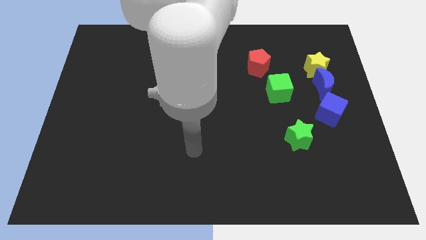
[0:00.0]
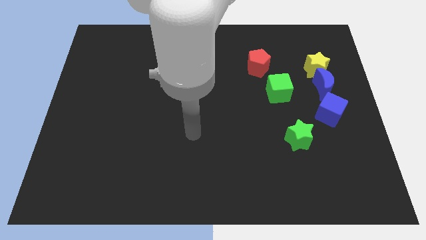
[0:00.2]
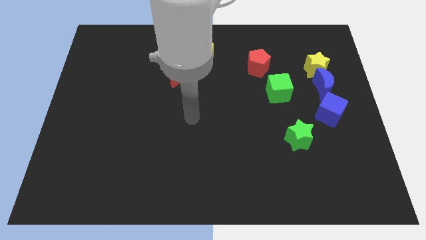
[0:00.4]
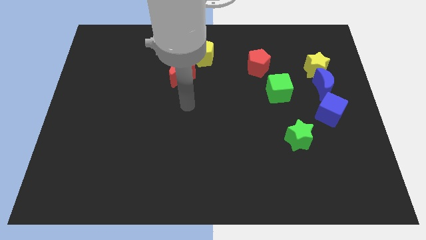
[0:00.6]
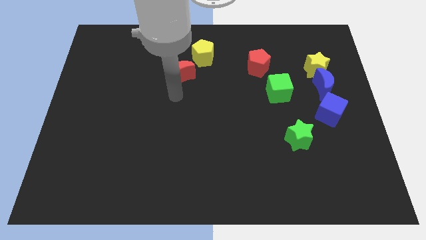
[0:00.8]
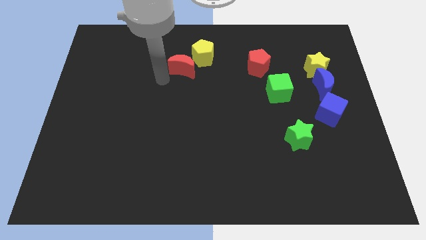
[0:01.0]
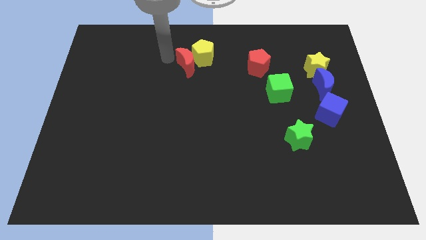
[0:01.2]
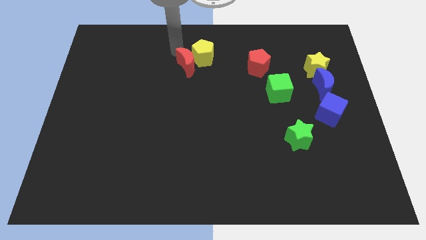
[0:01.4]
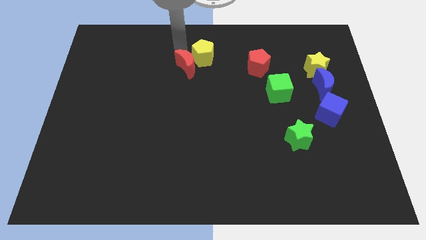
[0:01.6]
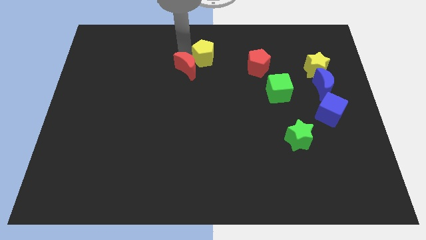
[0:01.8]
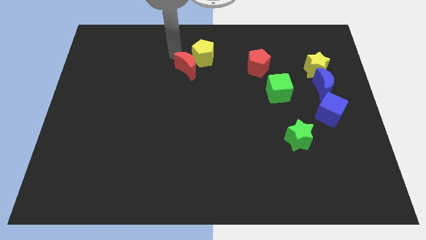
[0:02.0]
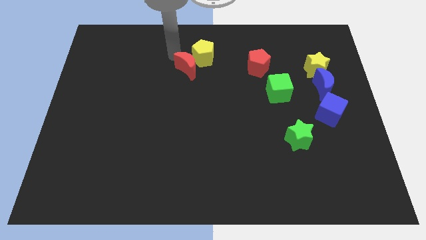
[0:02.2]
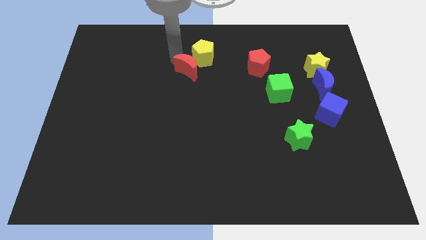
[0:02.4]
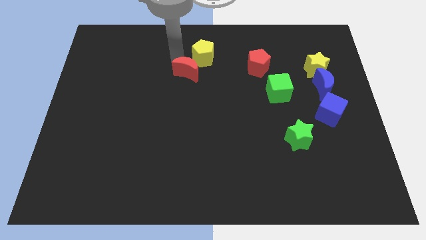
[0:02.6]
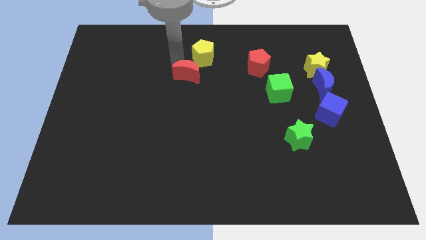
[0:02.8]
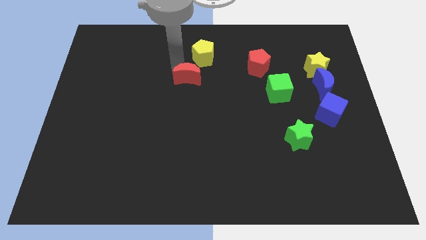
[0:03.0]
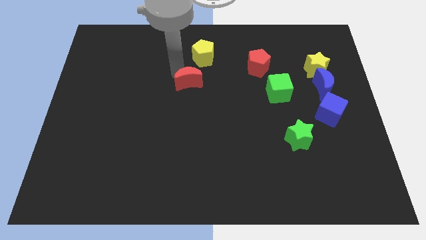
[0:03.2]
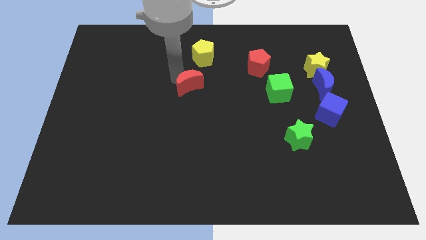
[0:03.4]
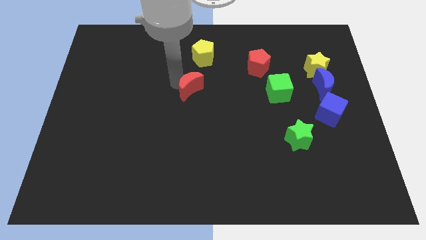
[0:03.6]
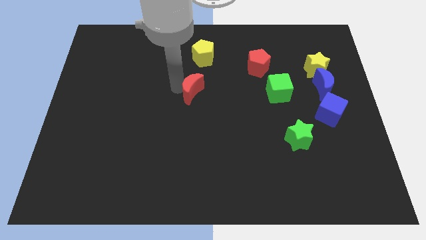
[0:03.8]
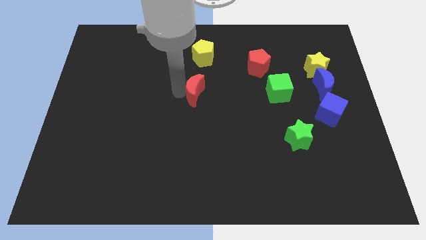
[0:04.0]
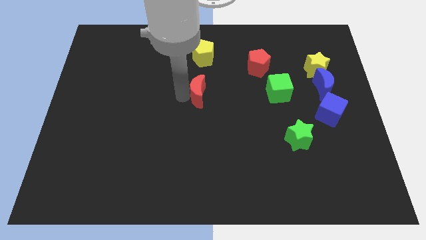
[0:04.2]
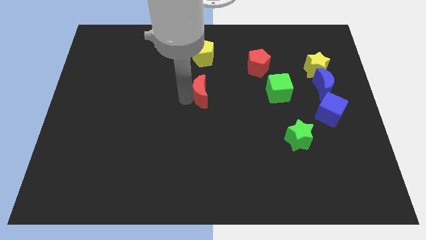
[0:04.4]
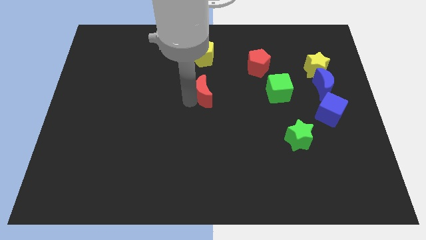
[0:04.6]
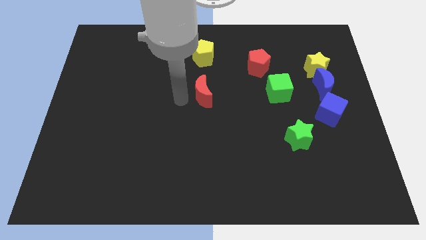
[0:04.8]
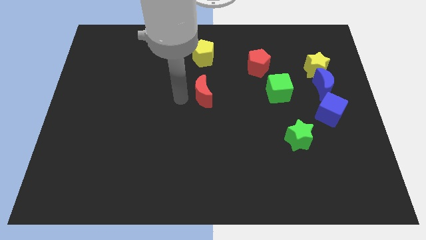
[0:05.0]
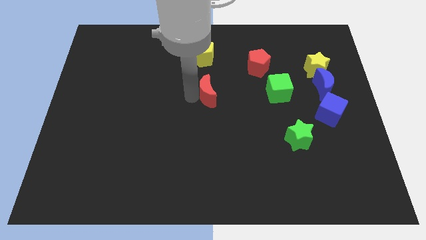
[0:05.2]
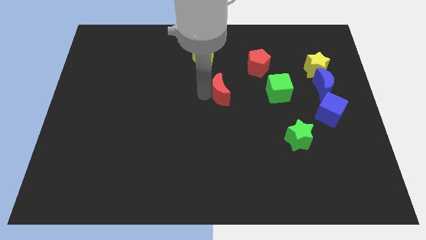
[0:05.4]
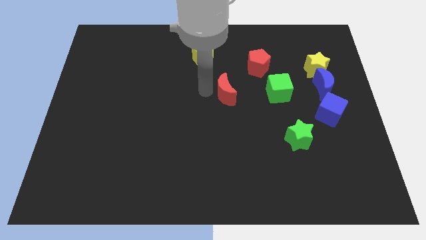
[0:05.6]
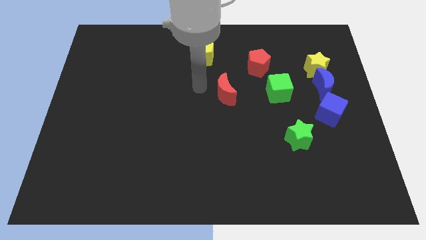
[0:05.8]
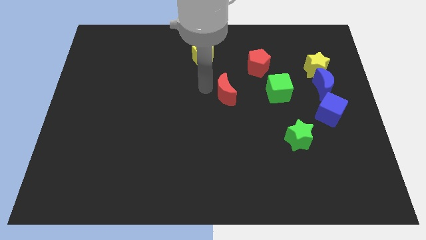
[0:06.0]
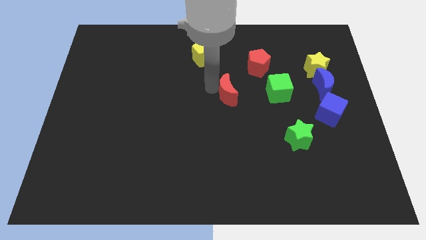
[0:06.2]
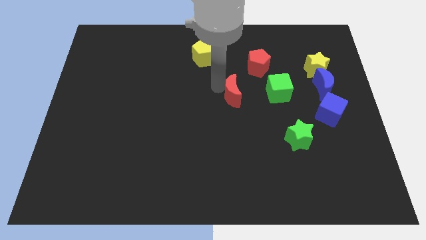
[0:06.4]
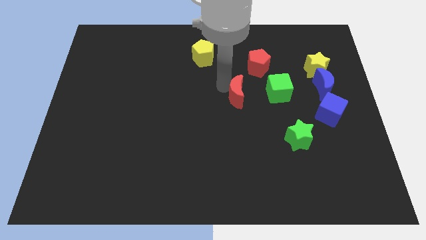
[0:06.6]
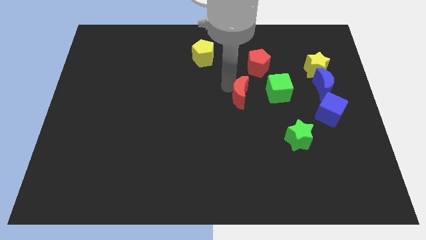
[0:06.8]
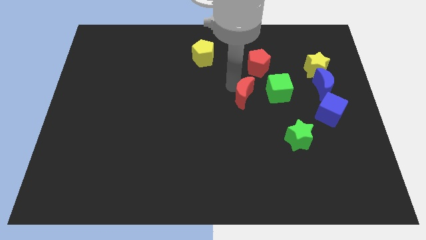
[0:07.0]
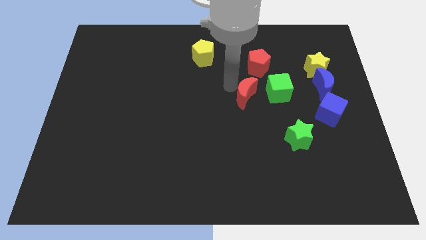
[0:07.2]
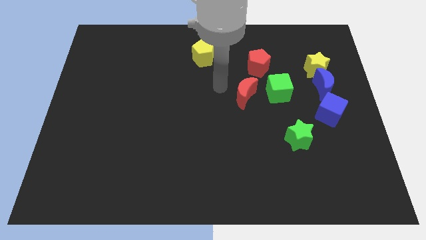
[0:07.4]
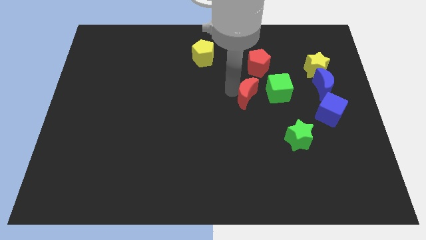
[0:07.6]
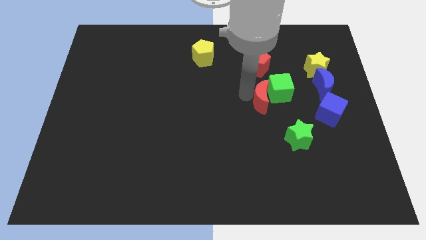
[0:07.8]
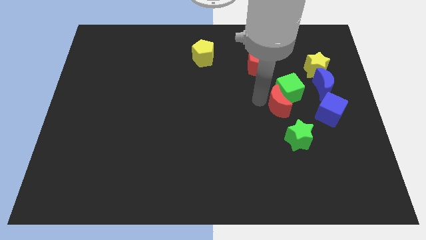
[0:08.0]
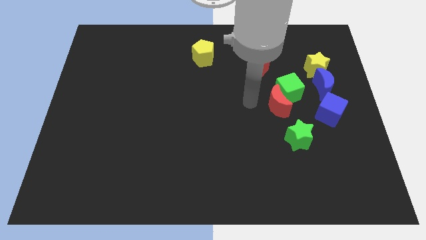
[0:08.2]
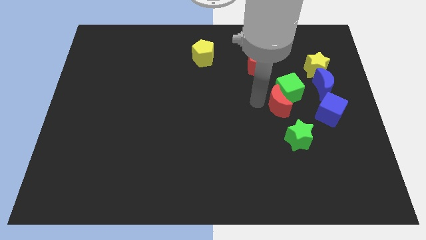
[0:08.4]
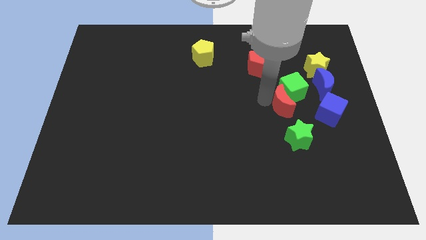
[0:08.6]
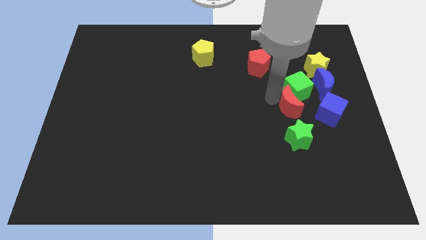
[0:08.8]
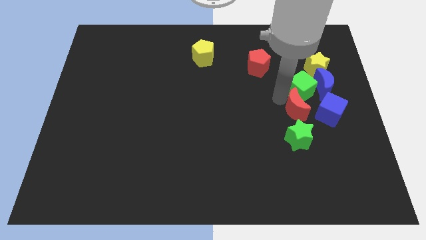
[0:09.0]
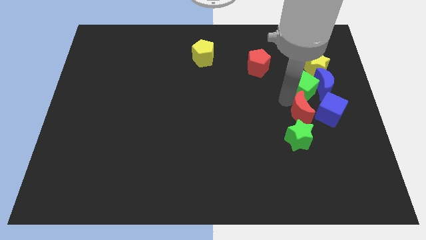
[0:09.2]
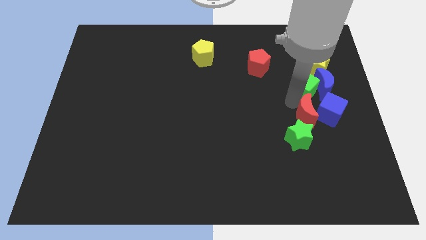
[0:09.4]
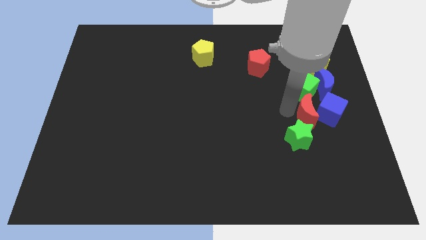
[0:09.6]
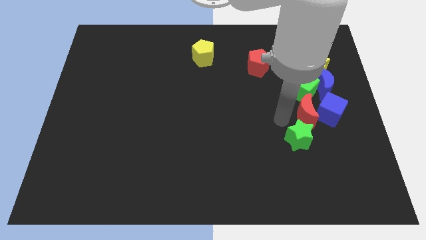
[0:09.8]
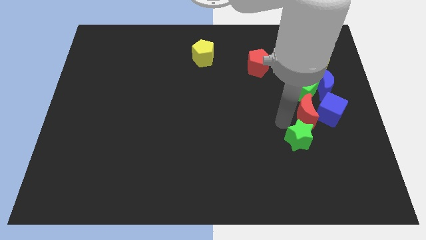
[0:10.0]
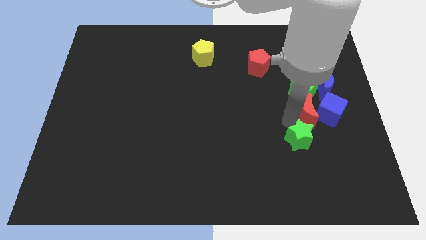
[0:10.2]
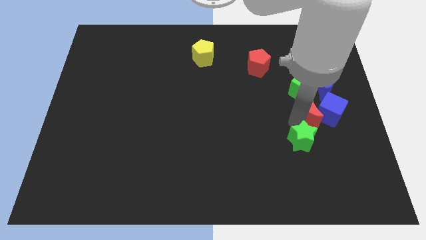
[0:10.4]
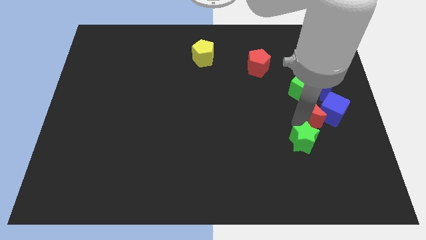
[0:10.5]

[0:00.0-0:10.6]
move the red moon to the bottom right of the green cube

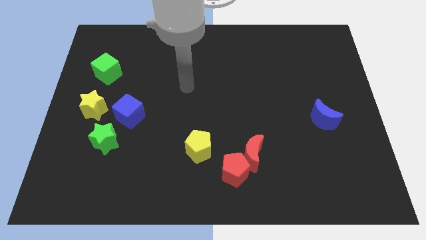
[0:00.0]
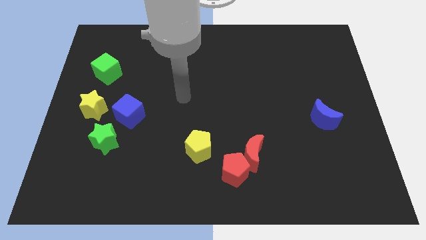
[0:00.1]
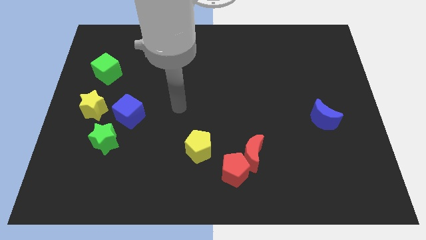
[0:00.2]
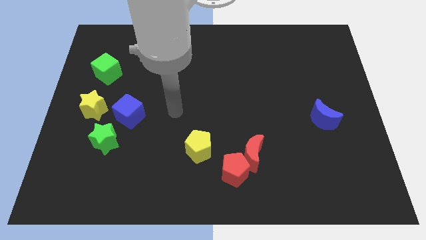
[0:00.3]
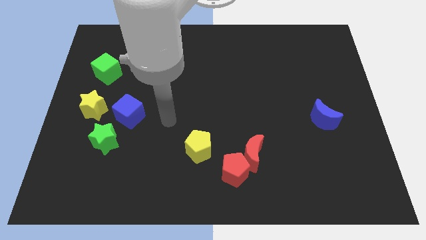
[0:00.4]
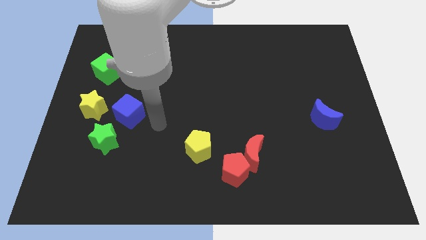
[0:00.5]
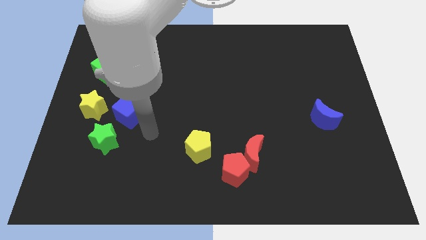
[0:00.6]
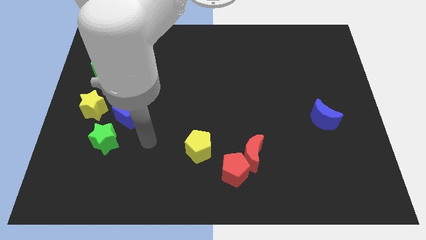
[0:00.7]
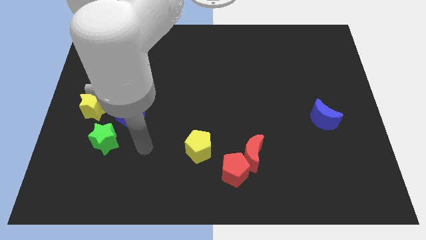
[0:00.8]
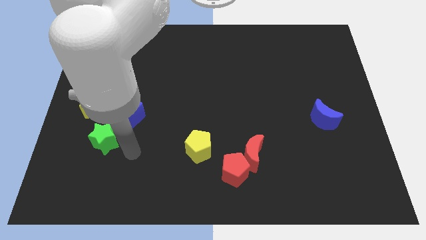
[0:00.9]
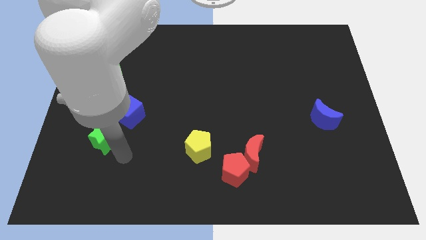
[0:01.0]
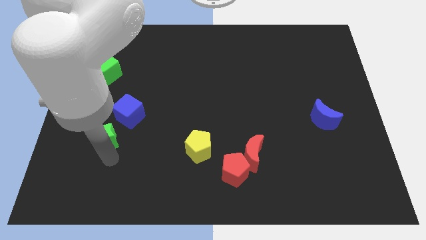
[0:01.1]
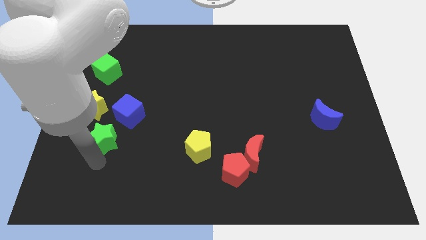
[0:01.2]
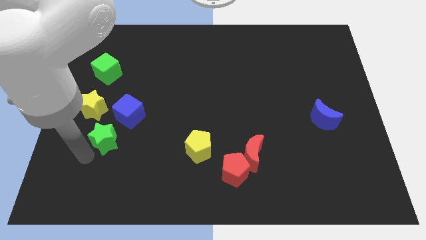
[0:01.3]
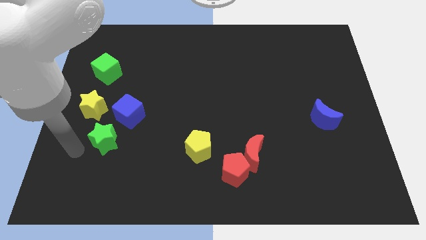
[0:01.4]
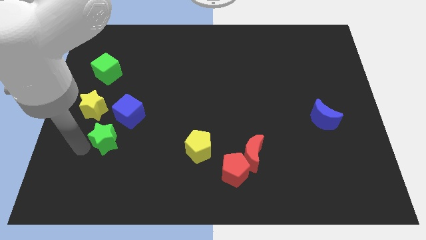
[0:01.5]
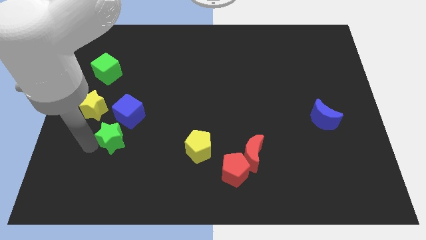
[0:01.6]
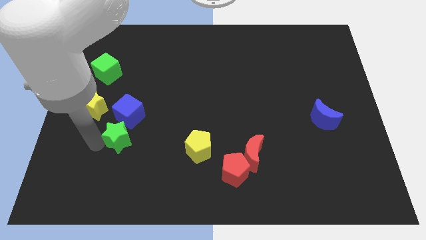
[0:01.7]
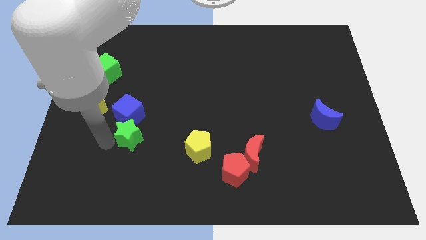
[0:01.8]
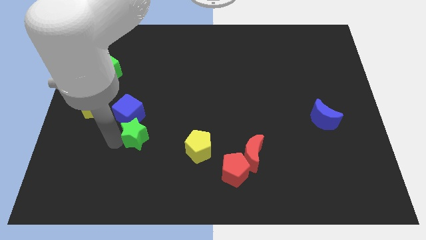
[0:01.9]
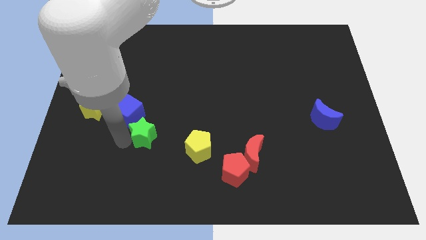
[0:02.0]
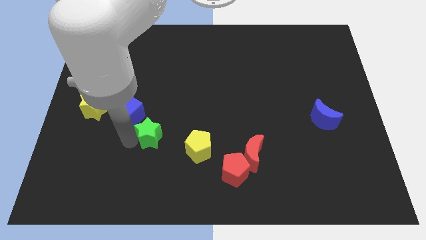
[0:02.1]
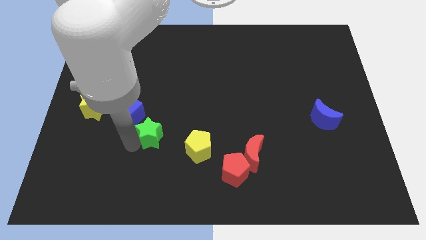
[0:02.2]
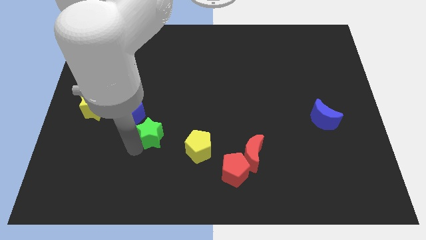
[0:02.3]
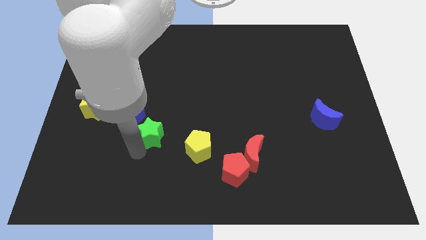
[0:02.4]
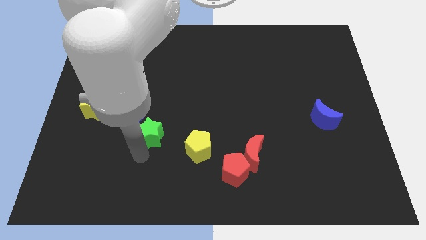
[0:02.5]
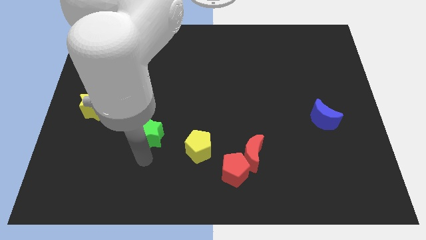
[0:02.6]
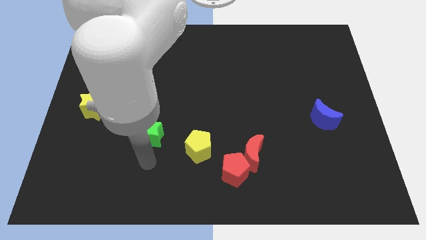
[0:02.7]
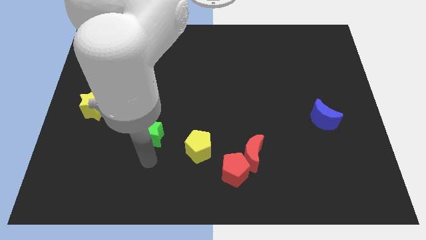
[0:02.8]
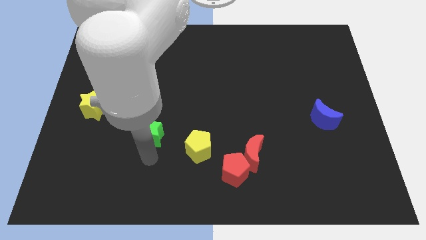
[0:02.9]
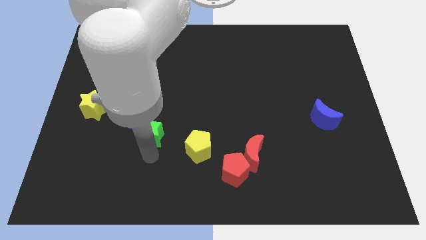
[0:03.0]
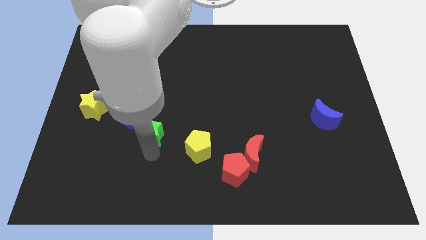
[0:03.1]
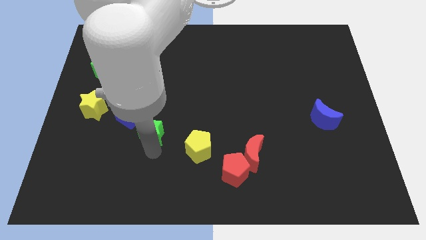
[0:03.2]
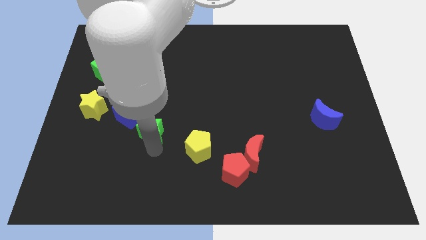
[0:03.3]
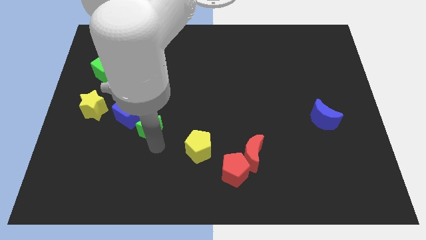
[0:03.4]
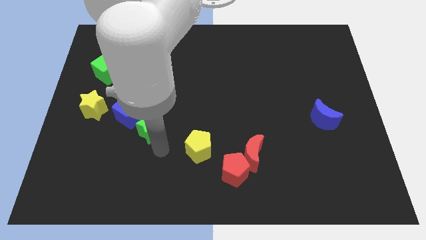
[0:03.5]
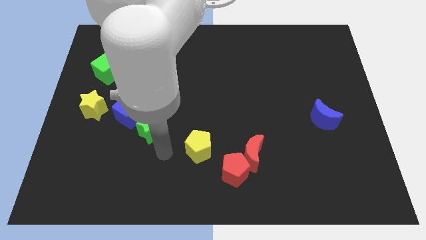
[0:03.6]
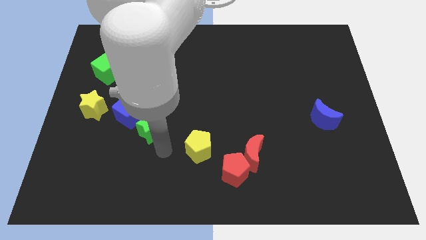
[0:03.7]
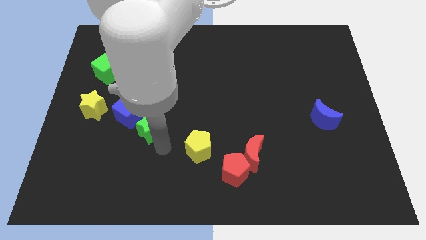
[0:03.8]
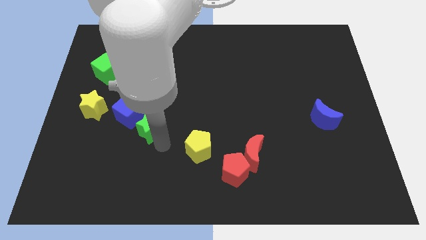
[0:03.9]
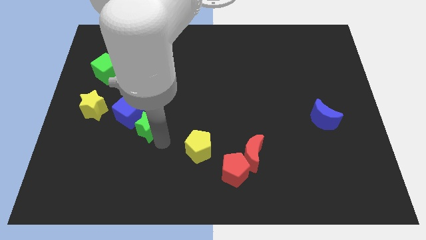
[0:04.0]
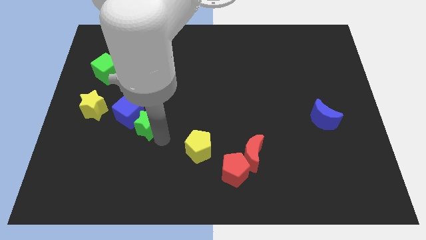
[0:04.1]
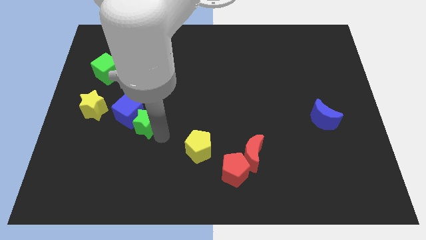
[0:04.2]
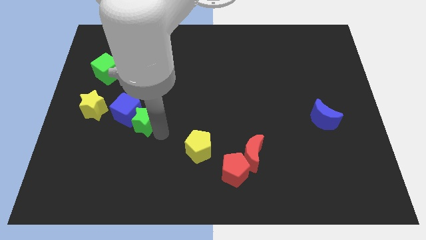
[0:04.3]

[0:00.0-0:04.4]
put the green star right of the yellow star
